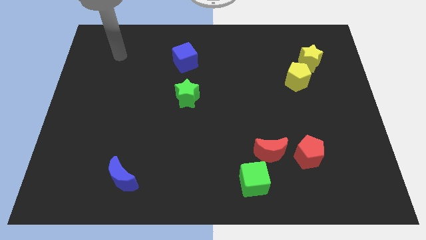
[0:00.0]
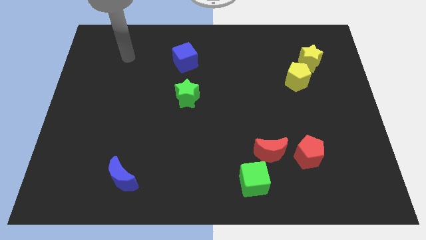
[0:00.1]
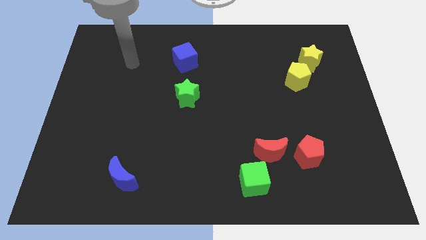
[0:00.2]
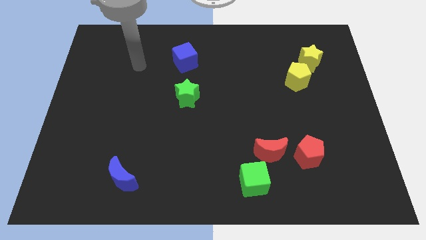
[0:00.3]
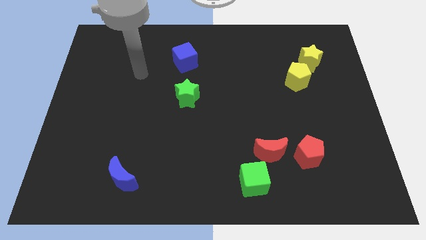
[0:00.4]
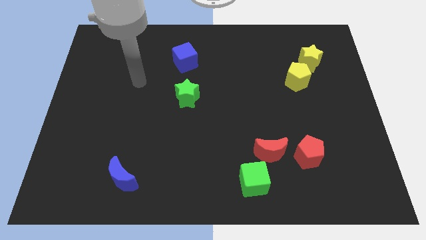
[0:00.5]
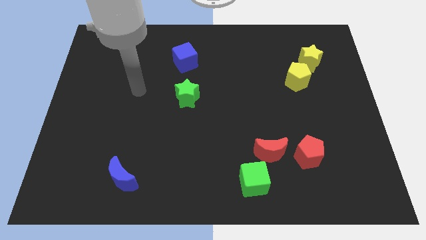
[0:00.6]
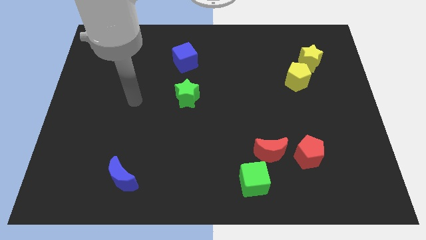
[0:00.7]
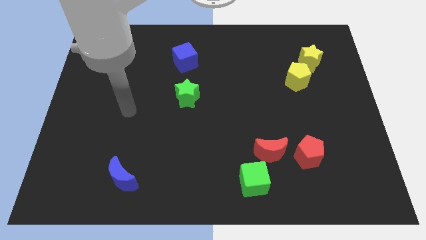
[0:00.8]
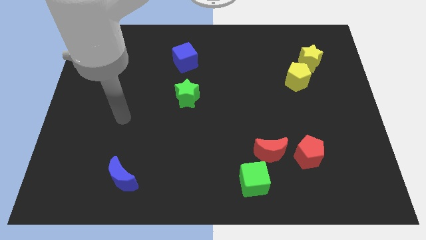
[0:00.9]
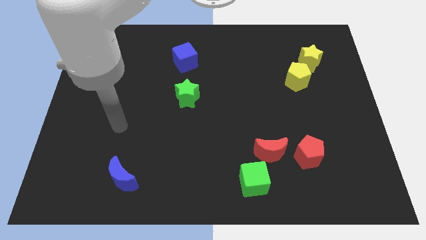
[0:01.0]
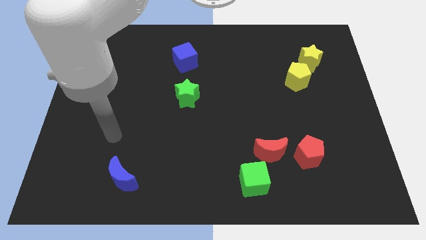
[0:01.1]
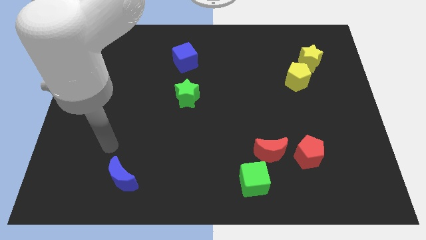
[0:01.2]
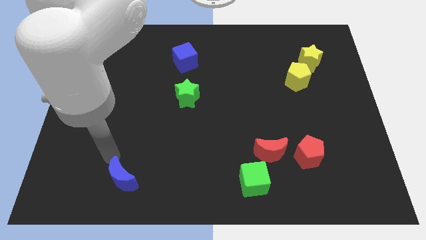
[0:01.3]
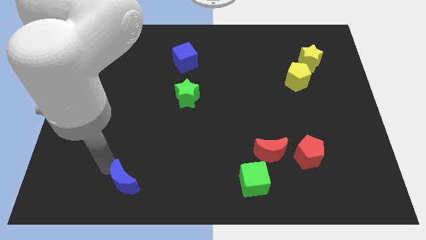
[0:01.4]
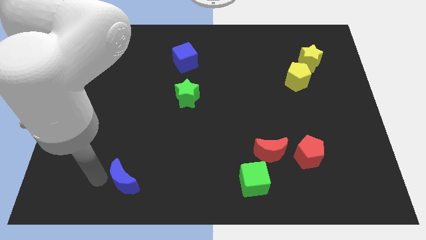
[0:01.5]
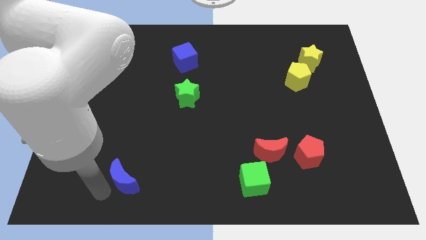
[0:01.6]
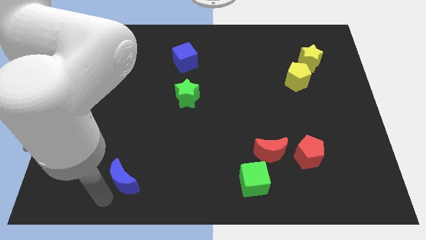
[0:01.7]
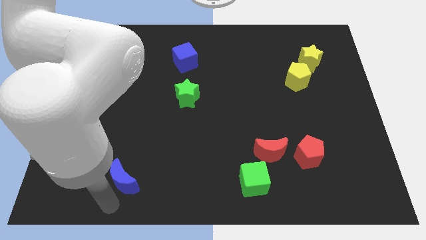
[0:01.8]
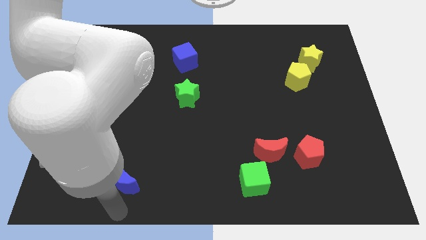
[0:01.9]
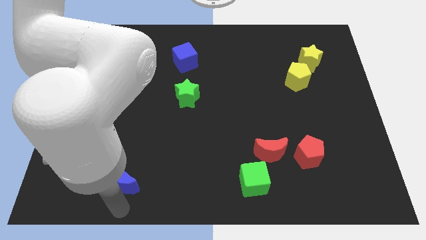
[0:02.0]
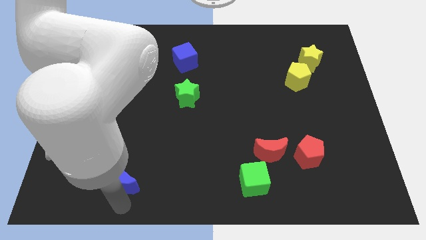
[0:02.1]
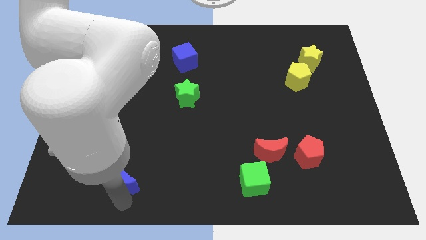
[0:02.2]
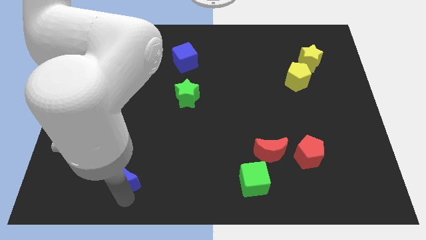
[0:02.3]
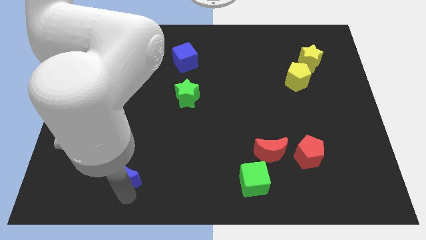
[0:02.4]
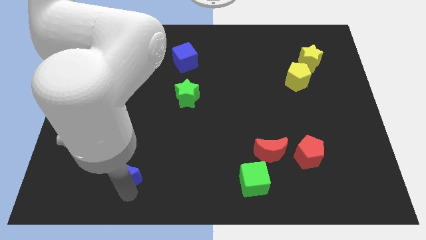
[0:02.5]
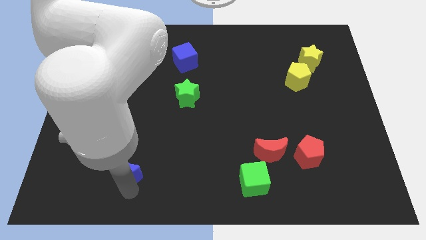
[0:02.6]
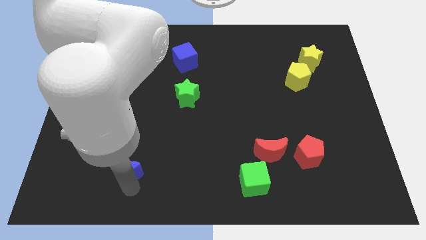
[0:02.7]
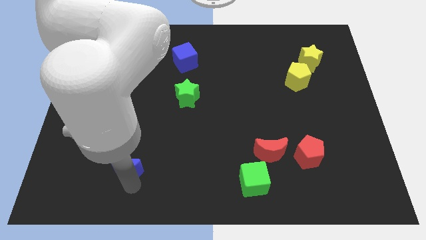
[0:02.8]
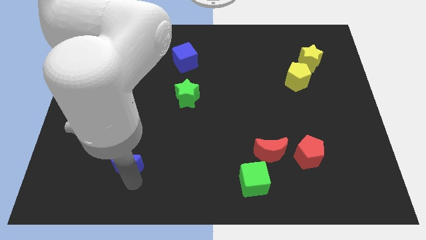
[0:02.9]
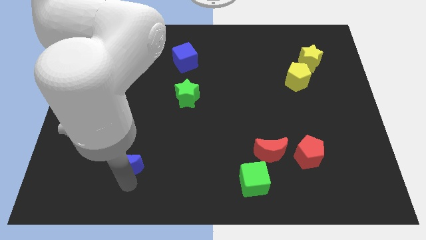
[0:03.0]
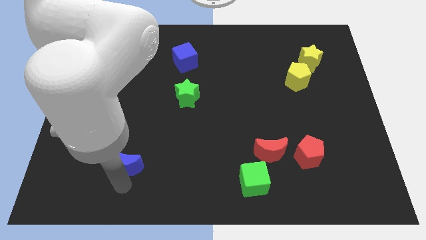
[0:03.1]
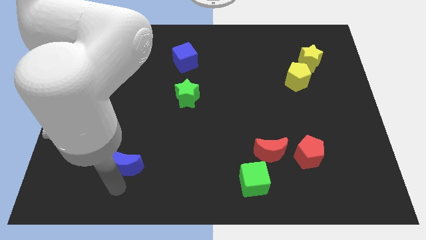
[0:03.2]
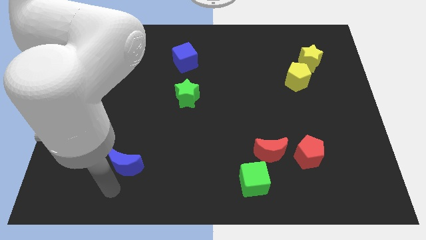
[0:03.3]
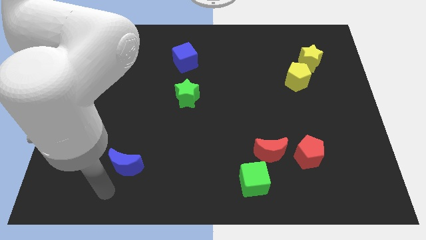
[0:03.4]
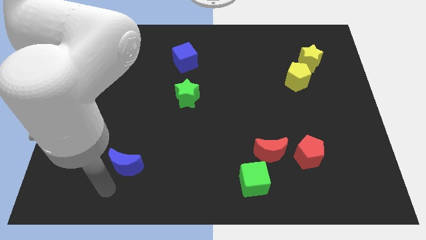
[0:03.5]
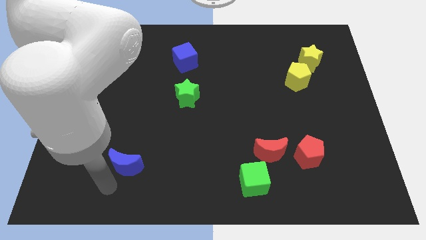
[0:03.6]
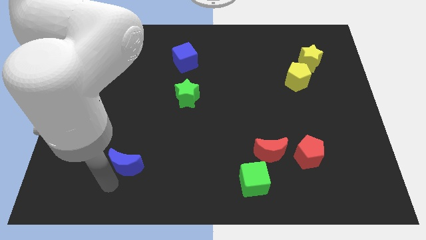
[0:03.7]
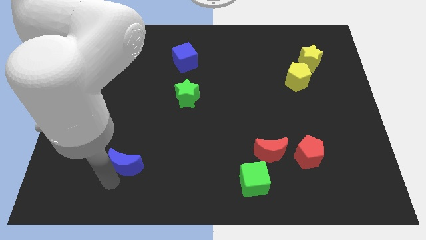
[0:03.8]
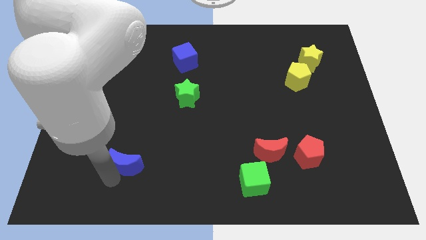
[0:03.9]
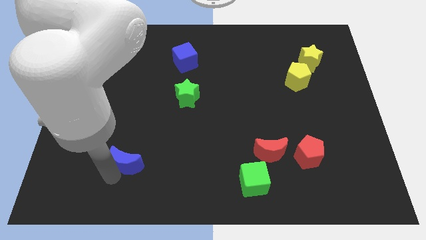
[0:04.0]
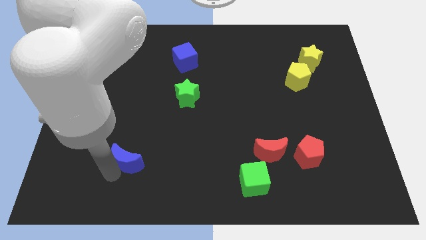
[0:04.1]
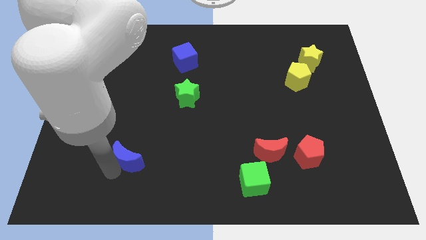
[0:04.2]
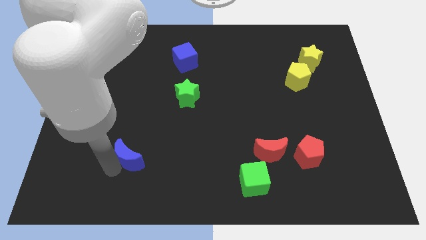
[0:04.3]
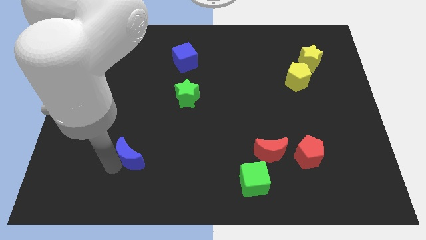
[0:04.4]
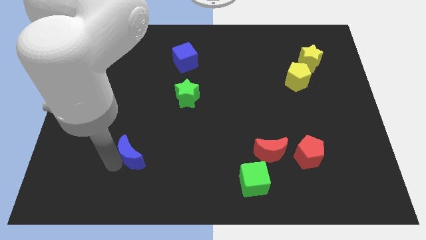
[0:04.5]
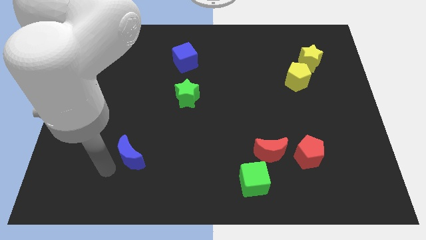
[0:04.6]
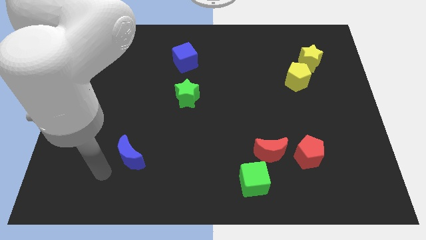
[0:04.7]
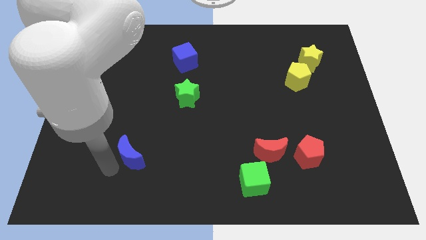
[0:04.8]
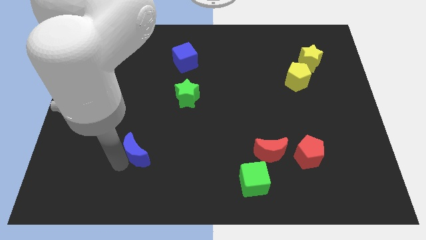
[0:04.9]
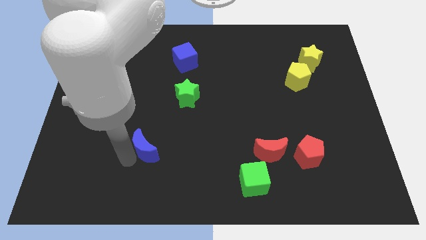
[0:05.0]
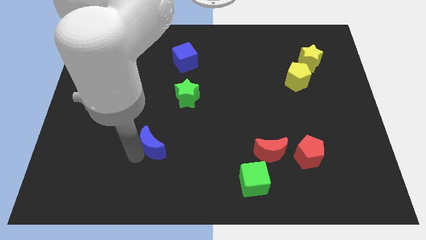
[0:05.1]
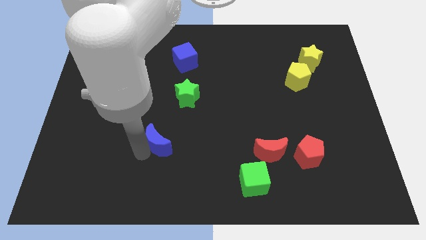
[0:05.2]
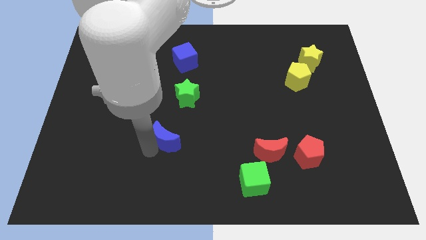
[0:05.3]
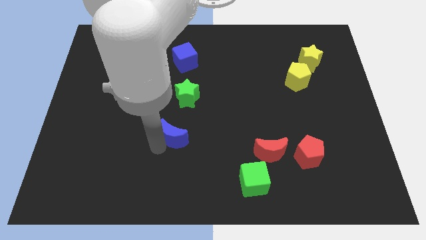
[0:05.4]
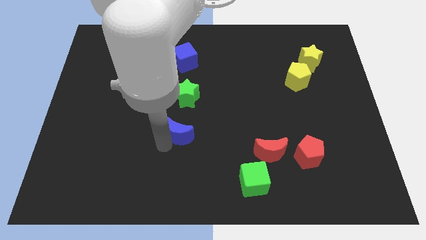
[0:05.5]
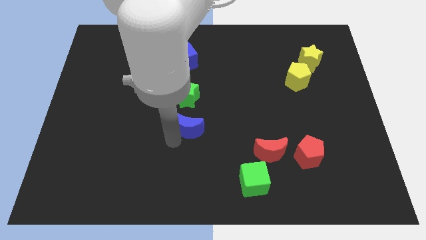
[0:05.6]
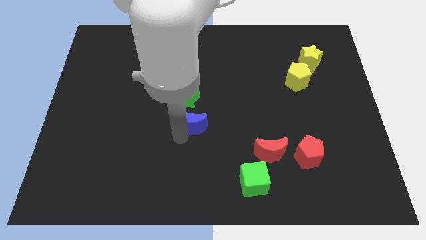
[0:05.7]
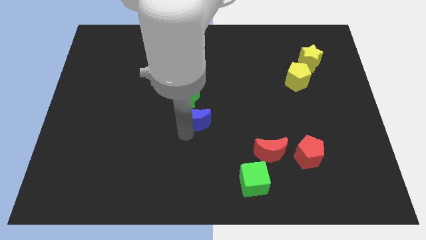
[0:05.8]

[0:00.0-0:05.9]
move the blue moon upwards and right diagonally

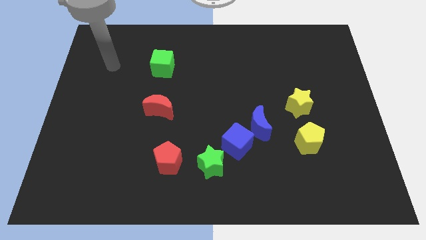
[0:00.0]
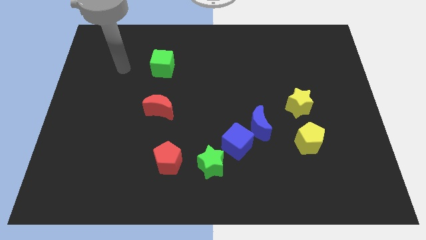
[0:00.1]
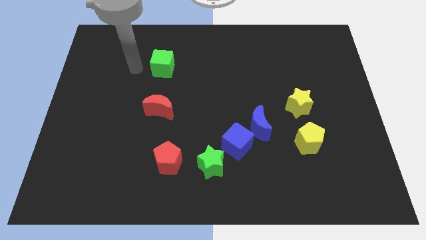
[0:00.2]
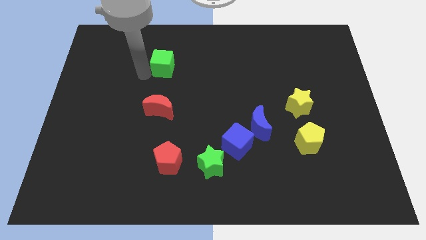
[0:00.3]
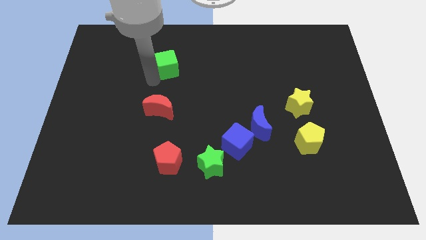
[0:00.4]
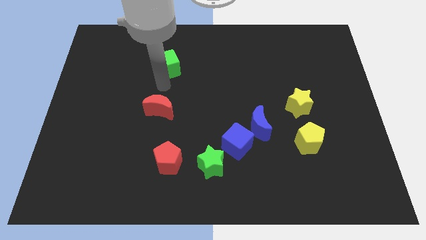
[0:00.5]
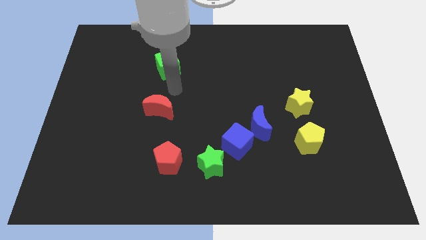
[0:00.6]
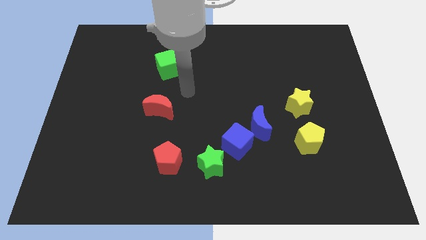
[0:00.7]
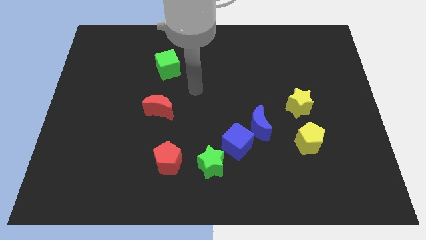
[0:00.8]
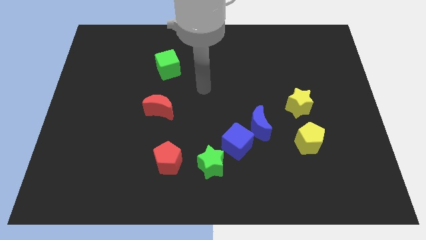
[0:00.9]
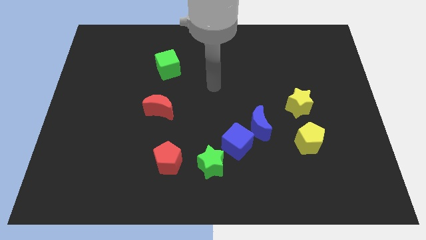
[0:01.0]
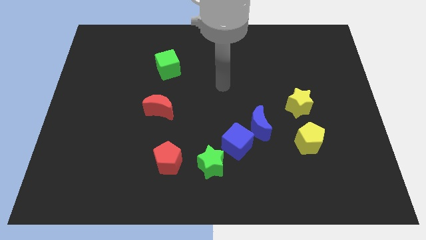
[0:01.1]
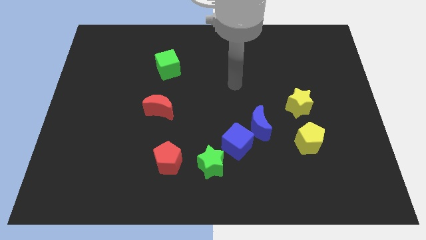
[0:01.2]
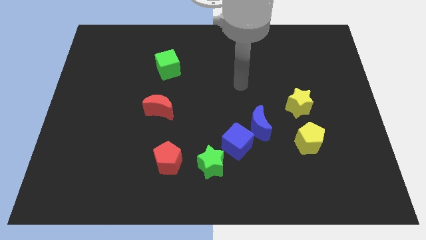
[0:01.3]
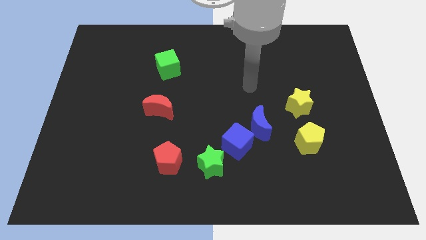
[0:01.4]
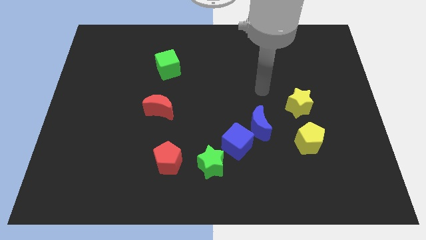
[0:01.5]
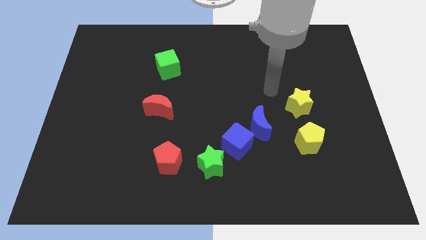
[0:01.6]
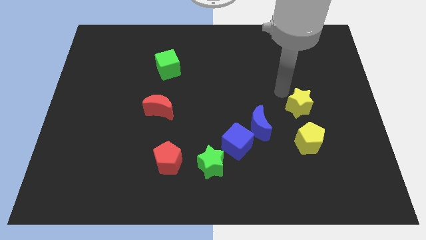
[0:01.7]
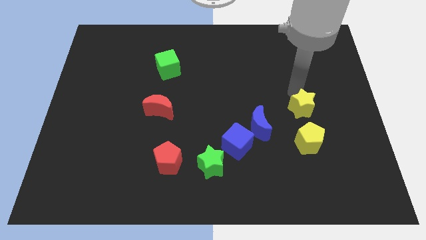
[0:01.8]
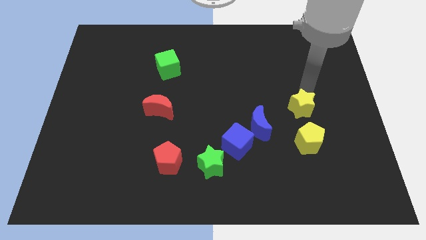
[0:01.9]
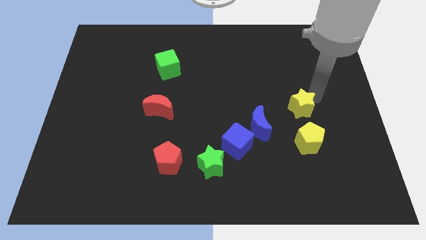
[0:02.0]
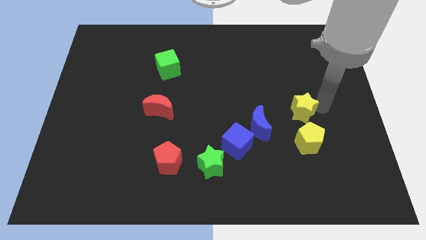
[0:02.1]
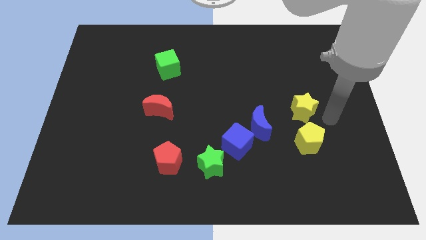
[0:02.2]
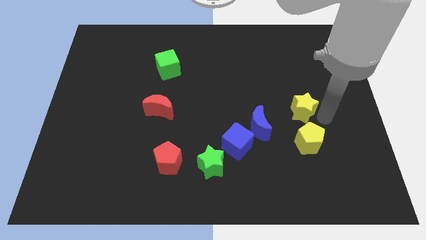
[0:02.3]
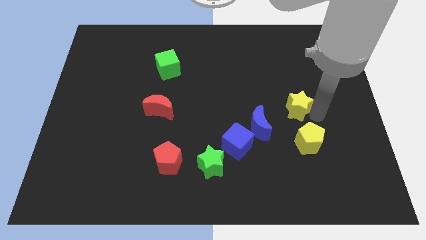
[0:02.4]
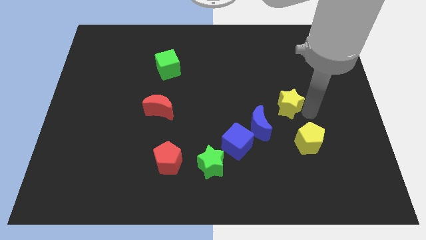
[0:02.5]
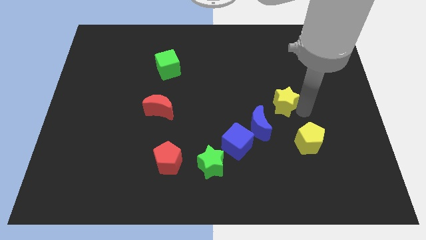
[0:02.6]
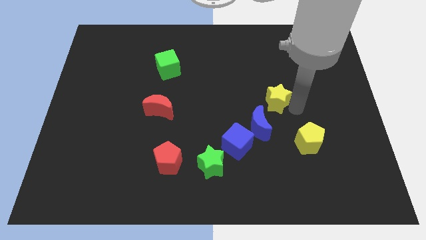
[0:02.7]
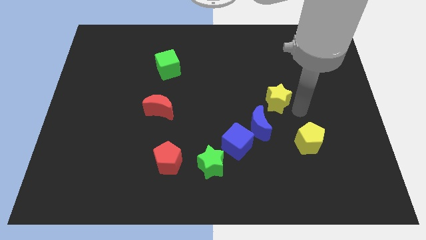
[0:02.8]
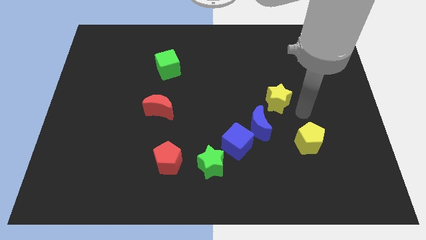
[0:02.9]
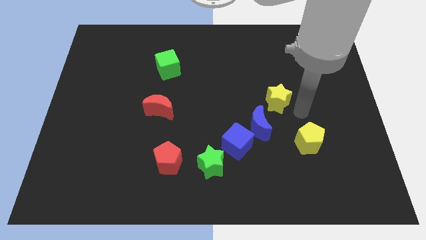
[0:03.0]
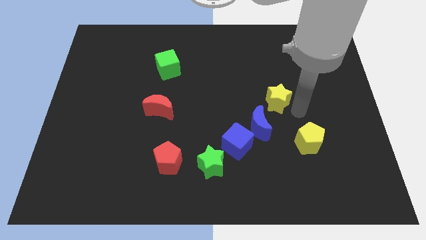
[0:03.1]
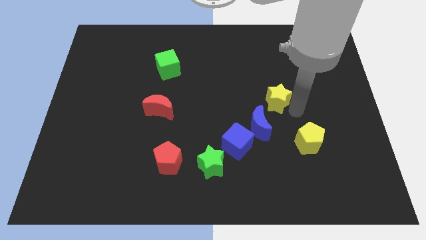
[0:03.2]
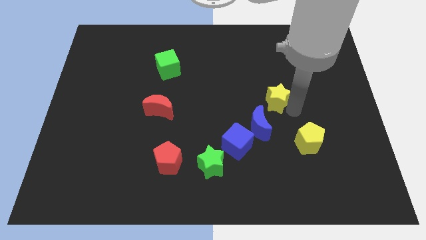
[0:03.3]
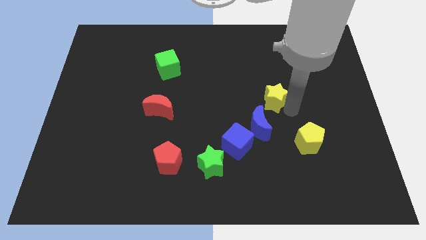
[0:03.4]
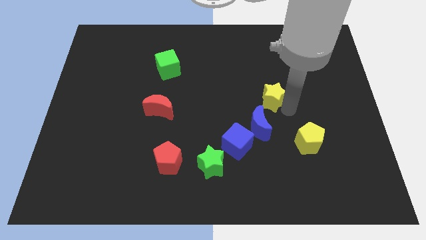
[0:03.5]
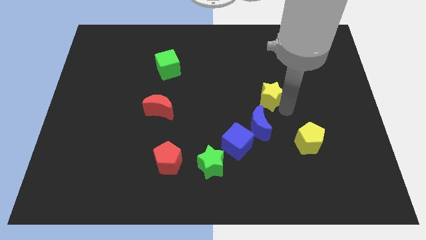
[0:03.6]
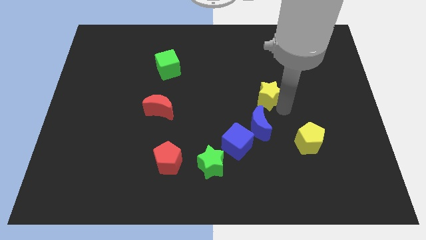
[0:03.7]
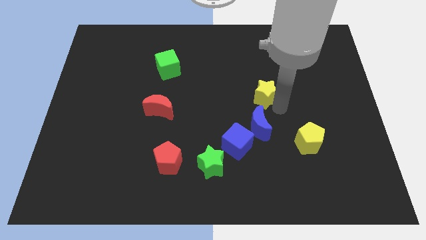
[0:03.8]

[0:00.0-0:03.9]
push the yellow star a bit diagonally up and to the left
